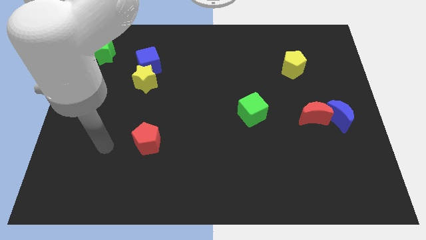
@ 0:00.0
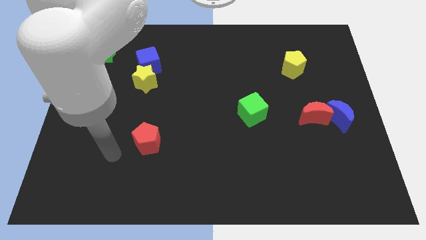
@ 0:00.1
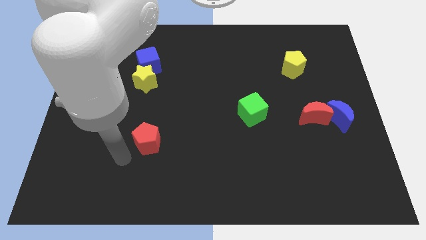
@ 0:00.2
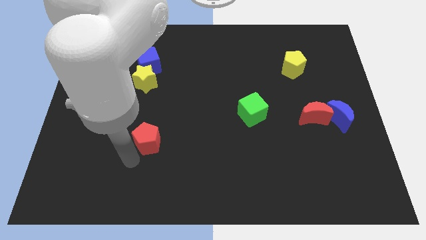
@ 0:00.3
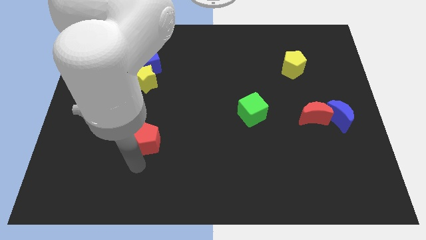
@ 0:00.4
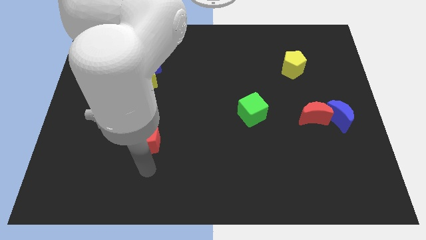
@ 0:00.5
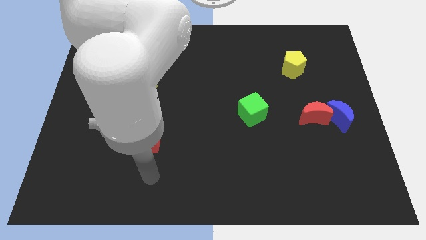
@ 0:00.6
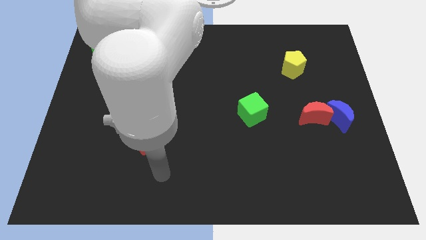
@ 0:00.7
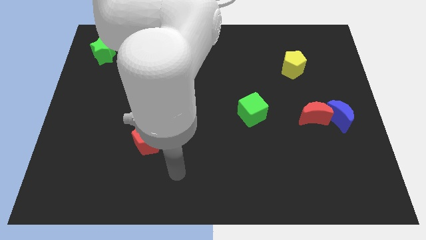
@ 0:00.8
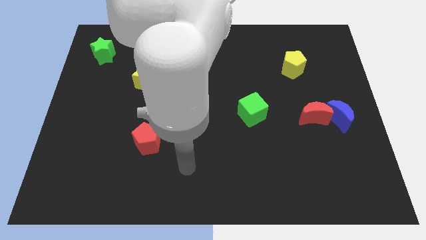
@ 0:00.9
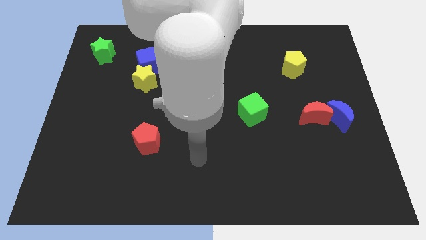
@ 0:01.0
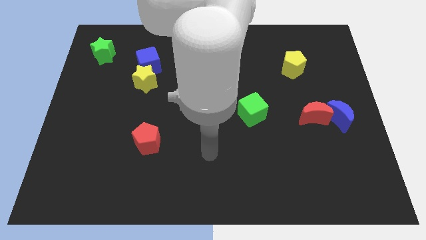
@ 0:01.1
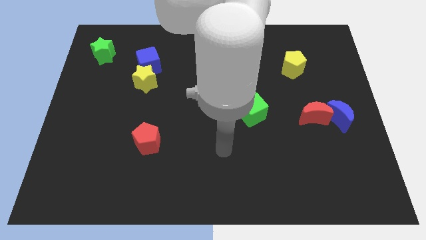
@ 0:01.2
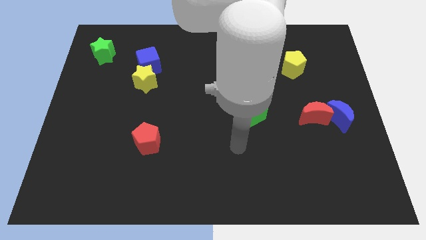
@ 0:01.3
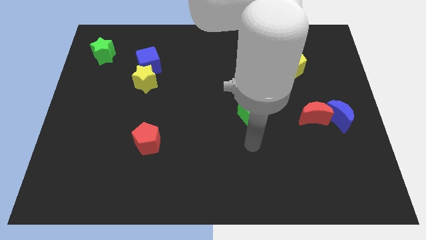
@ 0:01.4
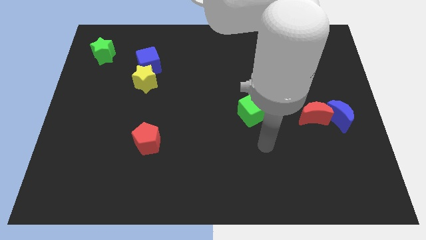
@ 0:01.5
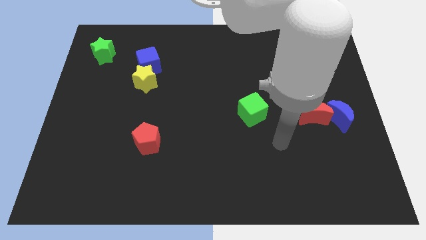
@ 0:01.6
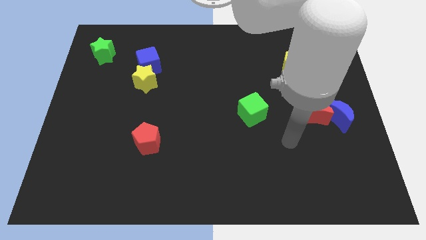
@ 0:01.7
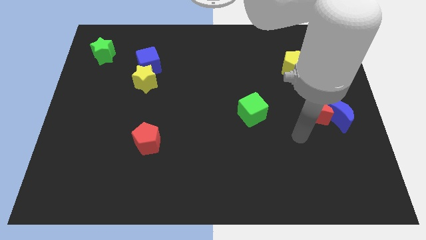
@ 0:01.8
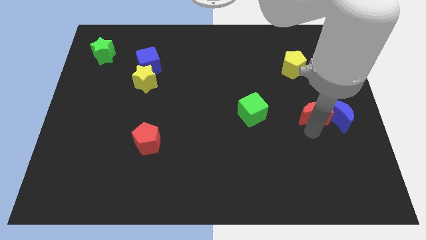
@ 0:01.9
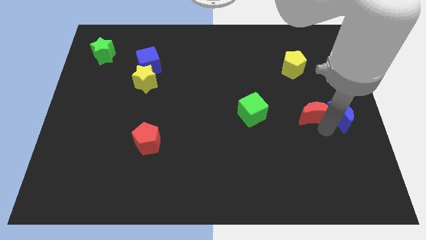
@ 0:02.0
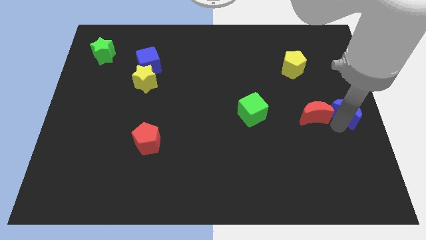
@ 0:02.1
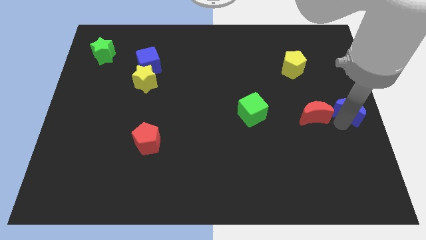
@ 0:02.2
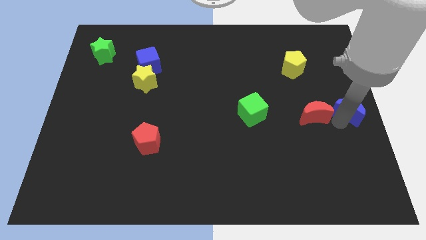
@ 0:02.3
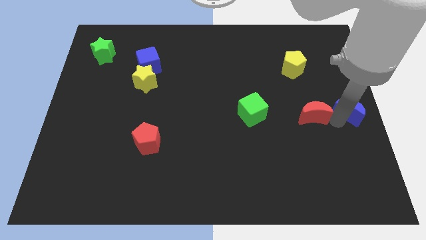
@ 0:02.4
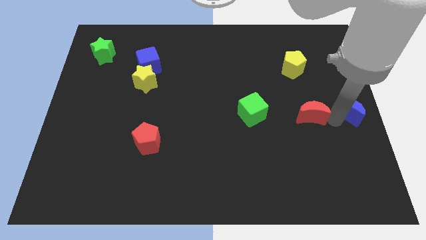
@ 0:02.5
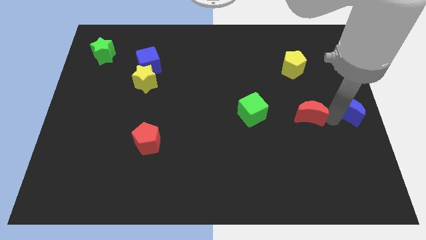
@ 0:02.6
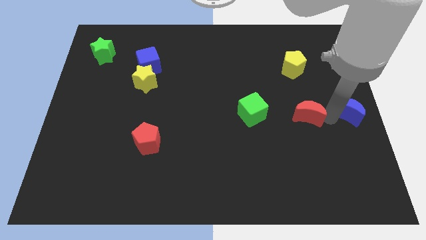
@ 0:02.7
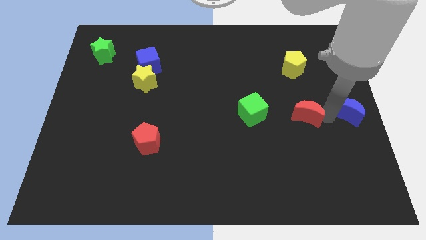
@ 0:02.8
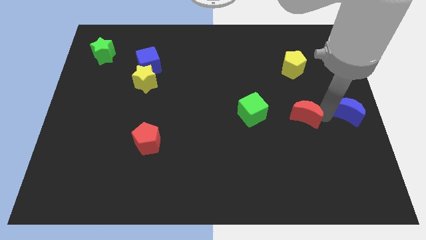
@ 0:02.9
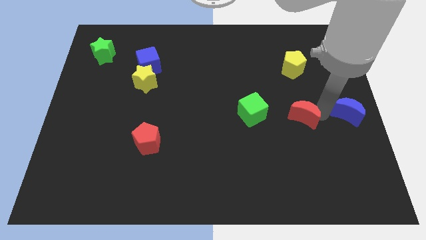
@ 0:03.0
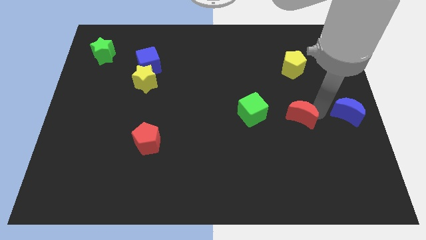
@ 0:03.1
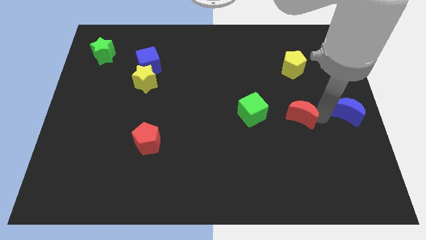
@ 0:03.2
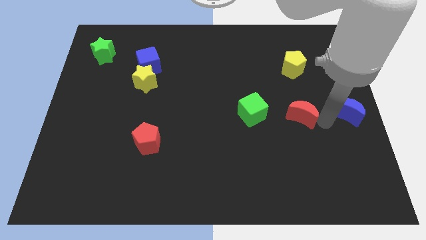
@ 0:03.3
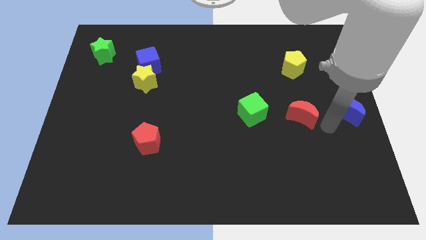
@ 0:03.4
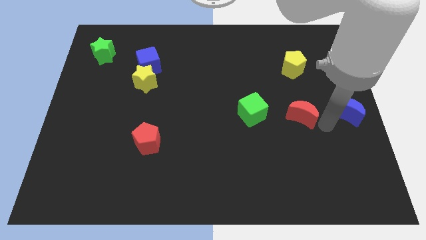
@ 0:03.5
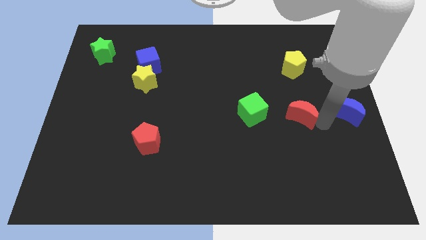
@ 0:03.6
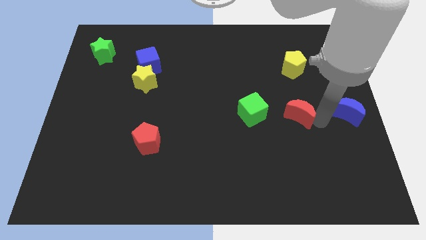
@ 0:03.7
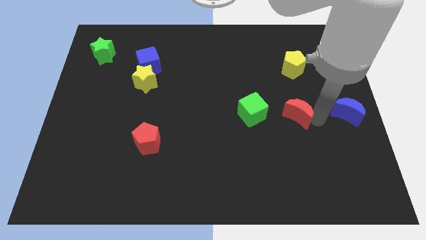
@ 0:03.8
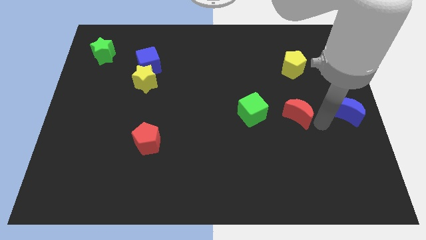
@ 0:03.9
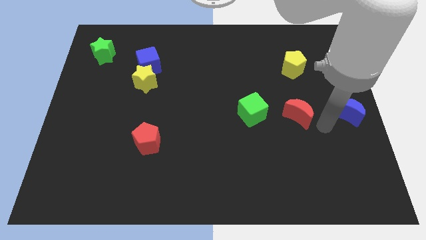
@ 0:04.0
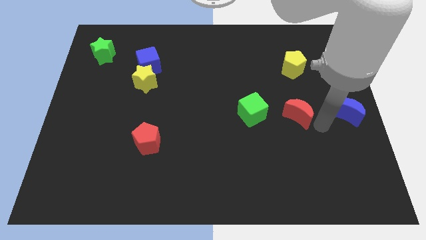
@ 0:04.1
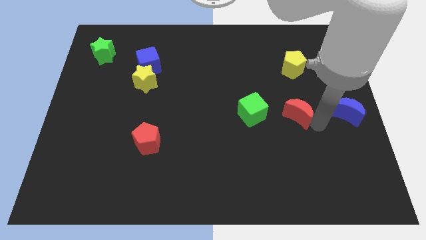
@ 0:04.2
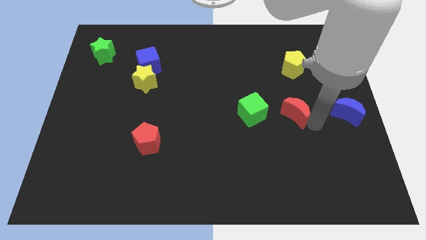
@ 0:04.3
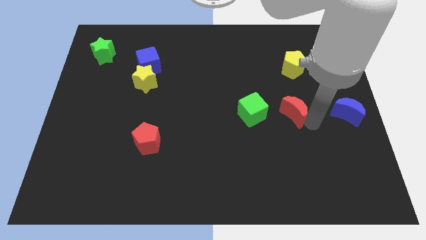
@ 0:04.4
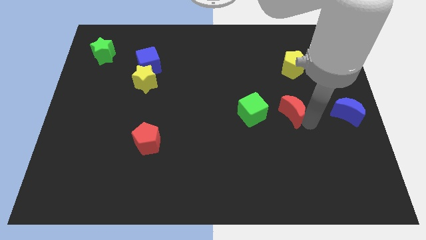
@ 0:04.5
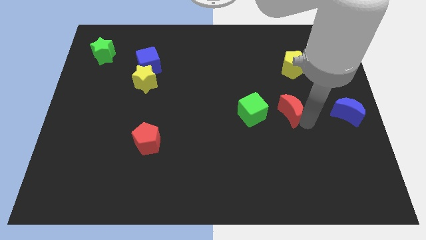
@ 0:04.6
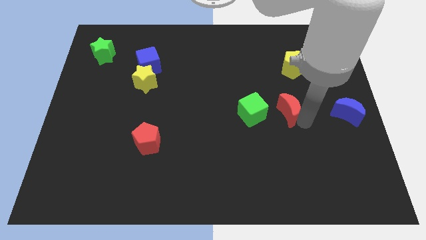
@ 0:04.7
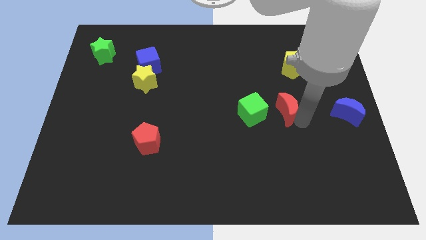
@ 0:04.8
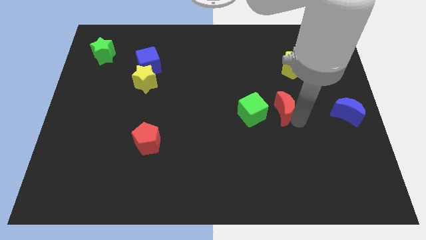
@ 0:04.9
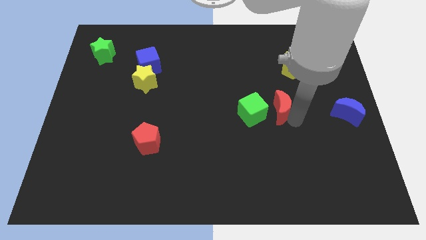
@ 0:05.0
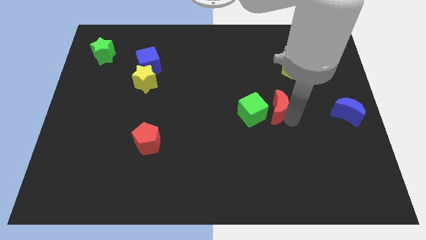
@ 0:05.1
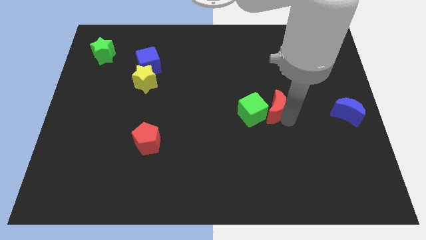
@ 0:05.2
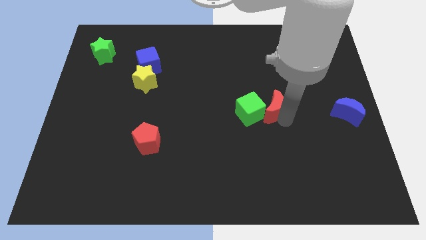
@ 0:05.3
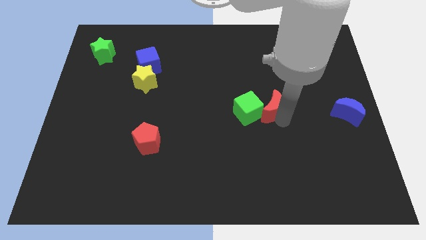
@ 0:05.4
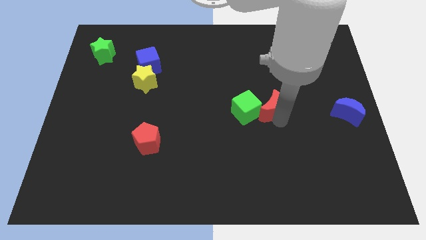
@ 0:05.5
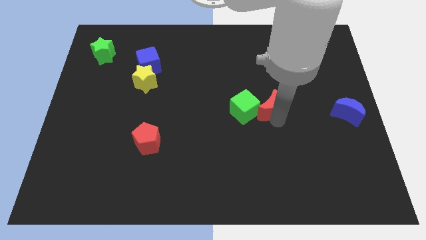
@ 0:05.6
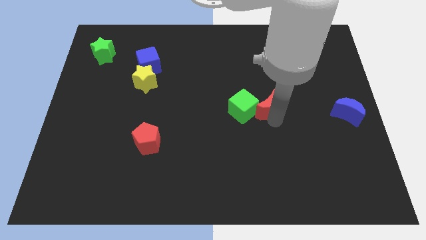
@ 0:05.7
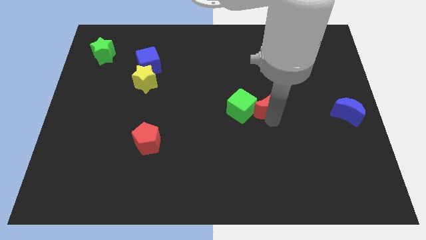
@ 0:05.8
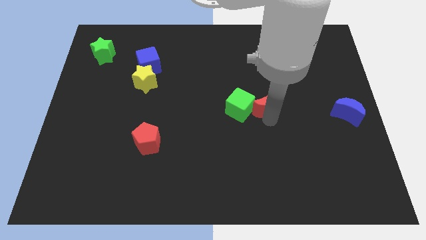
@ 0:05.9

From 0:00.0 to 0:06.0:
slide the red moon to the middle
